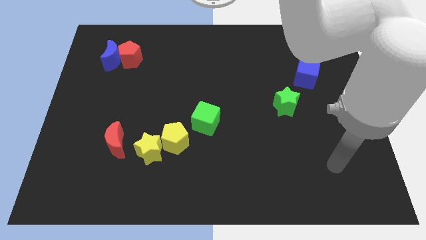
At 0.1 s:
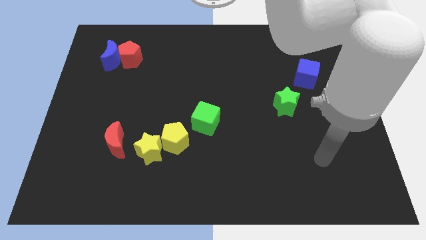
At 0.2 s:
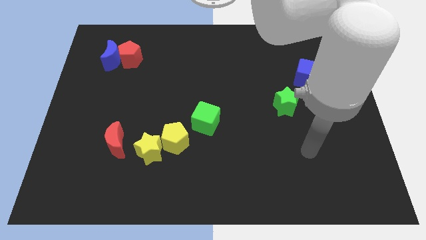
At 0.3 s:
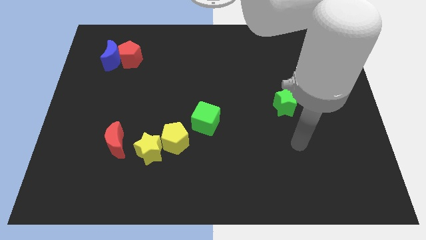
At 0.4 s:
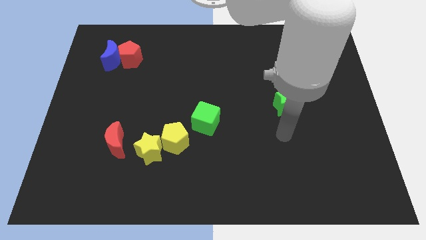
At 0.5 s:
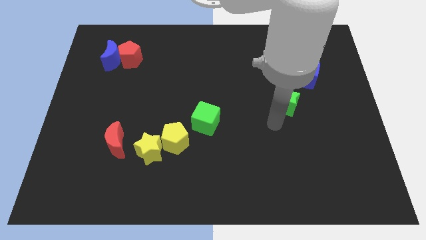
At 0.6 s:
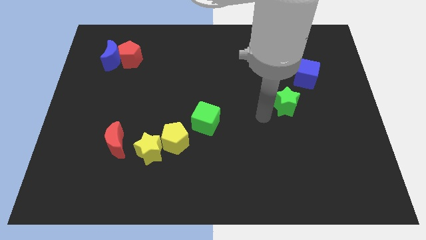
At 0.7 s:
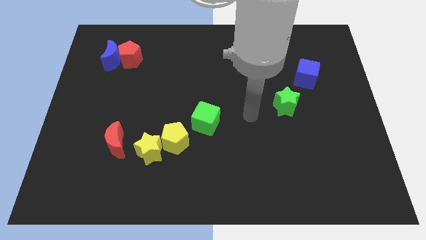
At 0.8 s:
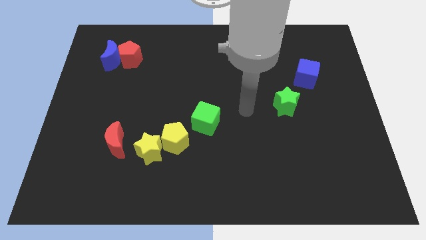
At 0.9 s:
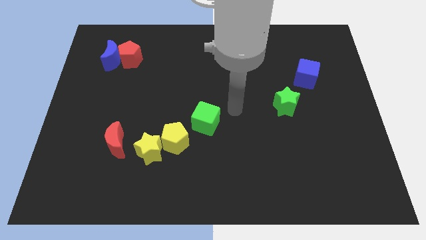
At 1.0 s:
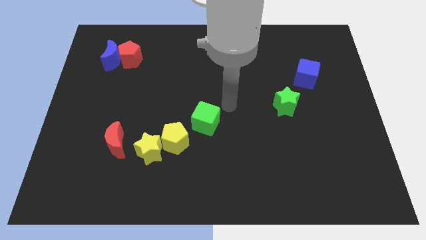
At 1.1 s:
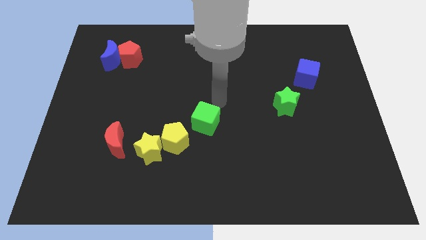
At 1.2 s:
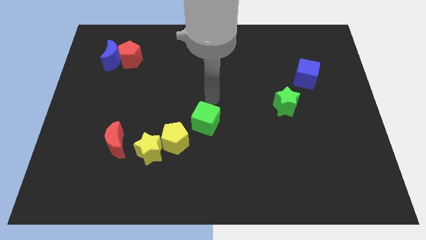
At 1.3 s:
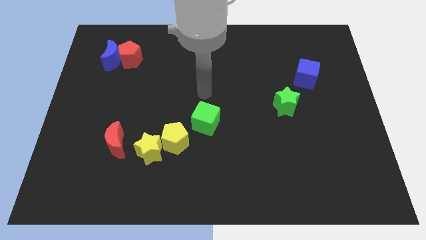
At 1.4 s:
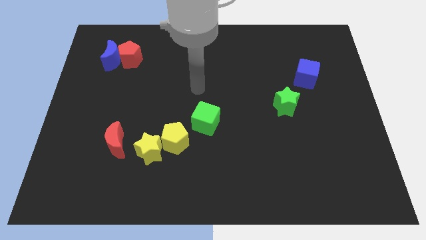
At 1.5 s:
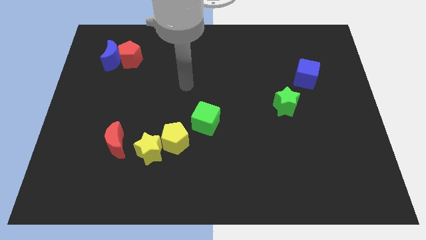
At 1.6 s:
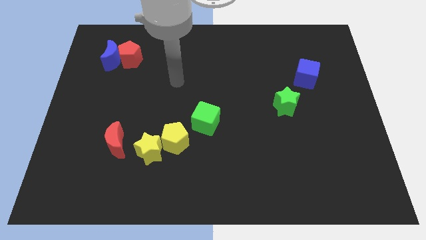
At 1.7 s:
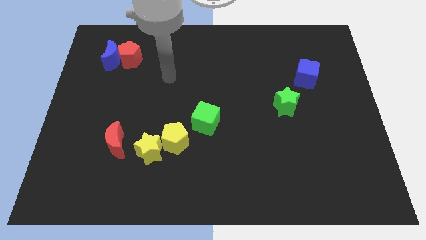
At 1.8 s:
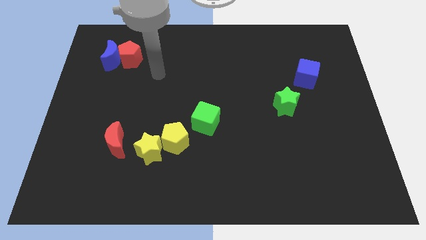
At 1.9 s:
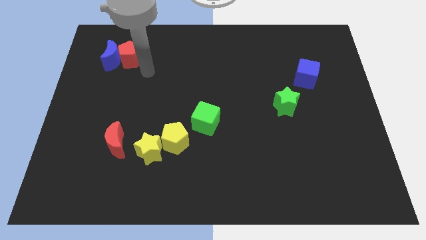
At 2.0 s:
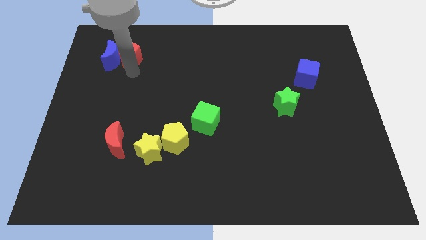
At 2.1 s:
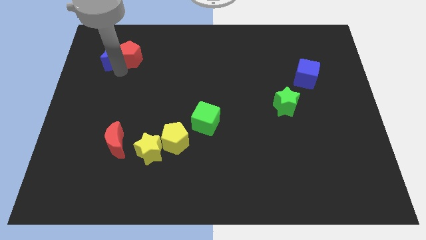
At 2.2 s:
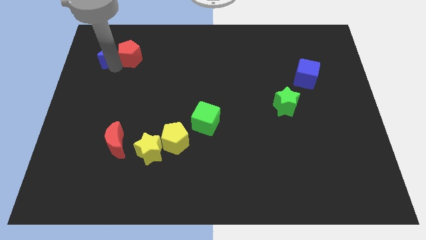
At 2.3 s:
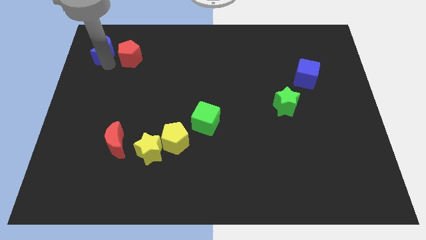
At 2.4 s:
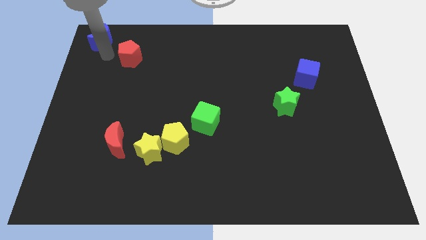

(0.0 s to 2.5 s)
move the red pentagon away from the blue moon

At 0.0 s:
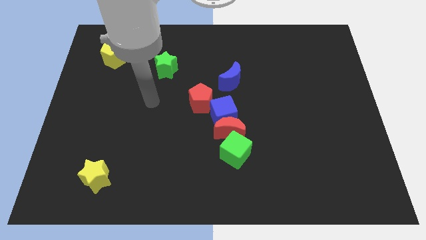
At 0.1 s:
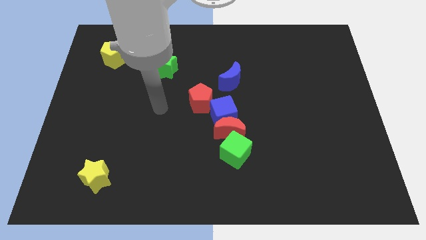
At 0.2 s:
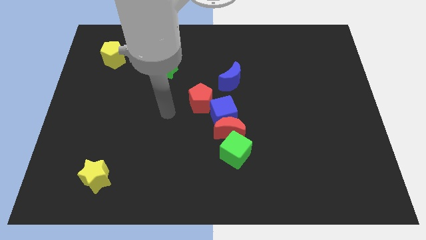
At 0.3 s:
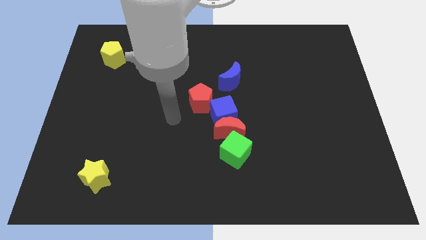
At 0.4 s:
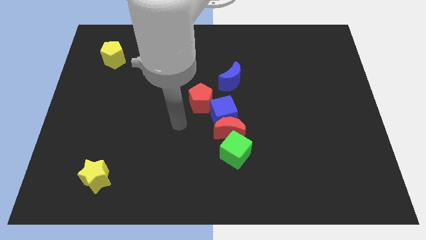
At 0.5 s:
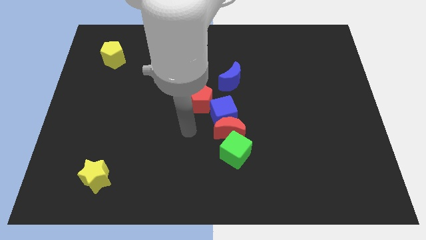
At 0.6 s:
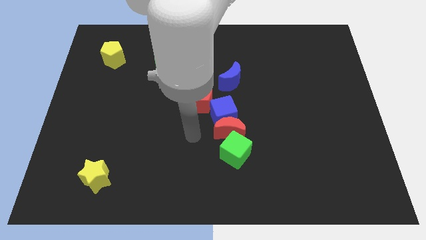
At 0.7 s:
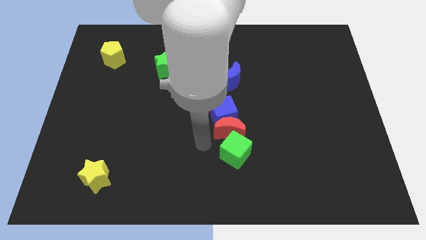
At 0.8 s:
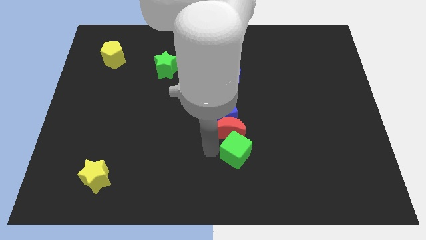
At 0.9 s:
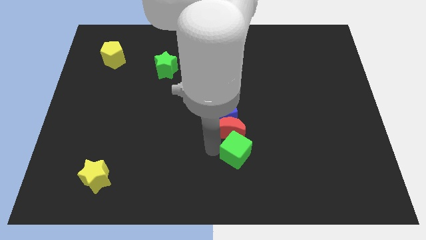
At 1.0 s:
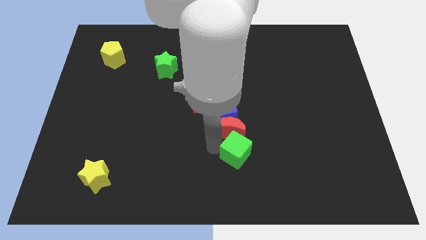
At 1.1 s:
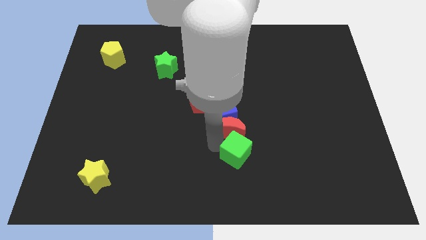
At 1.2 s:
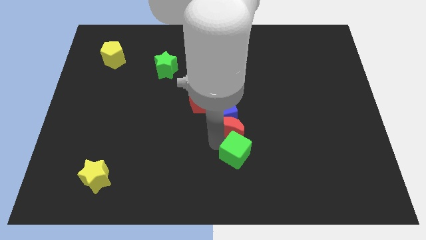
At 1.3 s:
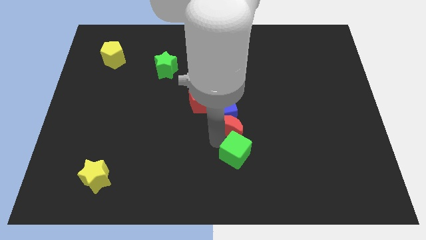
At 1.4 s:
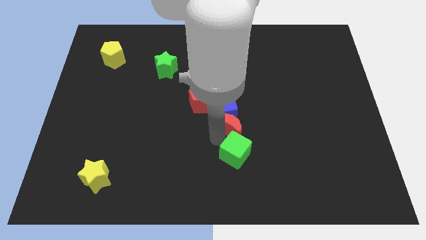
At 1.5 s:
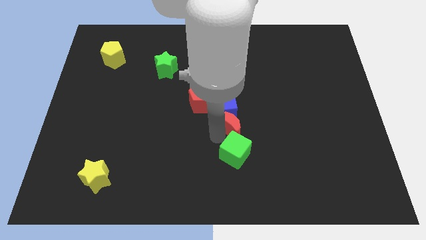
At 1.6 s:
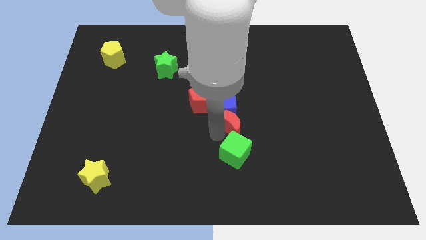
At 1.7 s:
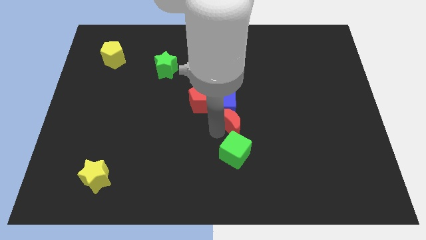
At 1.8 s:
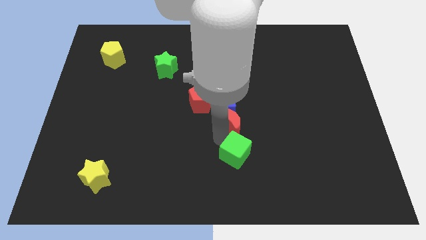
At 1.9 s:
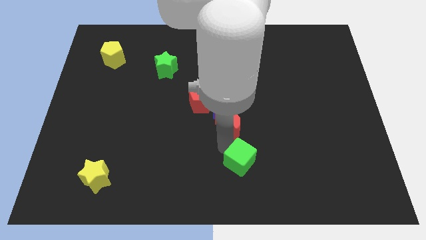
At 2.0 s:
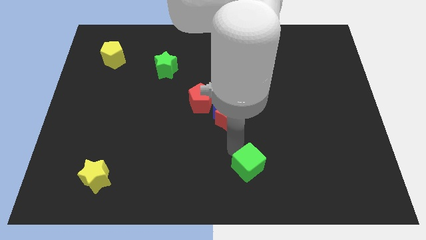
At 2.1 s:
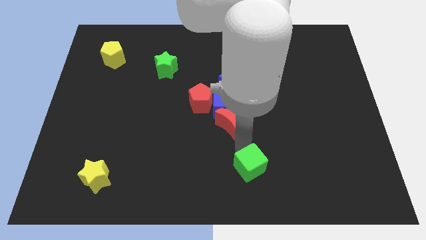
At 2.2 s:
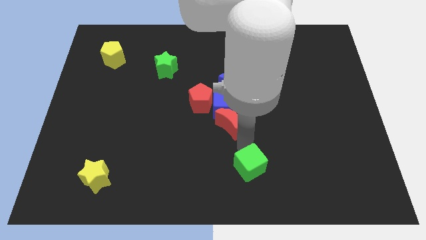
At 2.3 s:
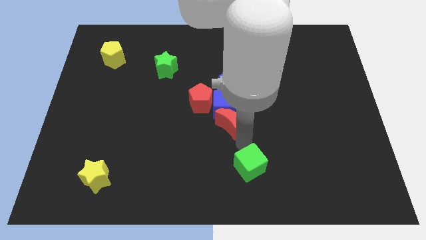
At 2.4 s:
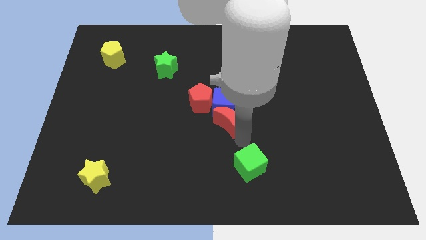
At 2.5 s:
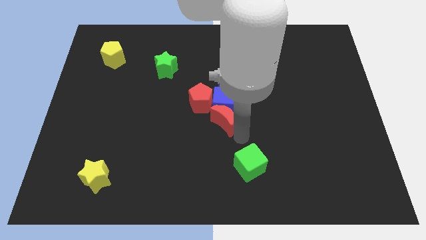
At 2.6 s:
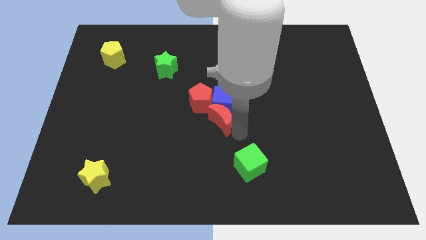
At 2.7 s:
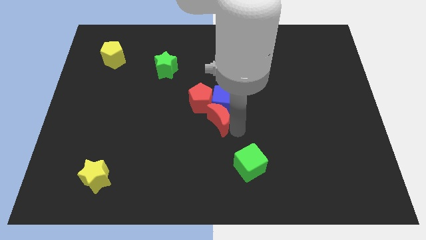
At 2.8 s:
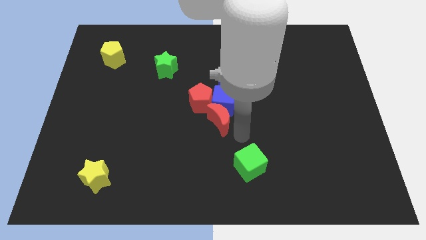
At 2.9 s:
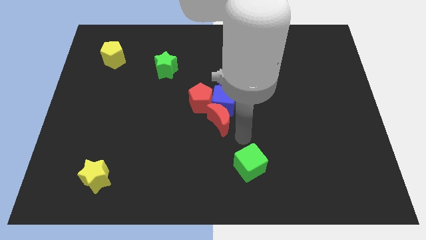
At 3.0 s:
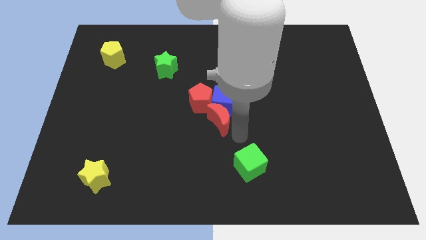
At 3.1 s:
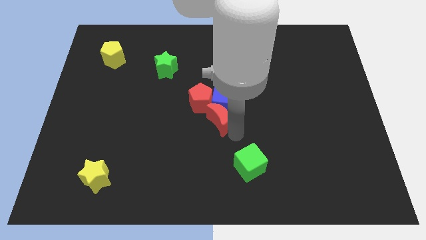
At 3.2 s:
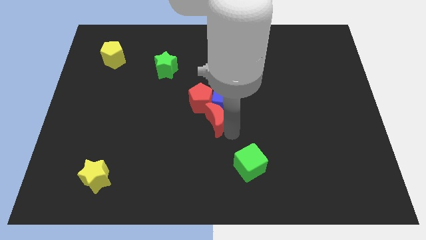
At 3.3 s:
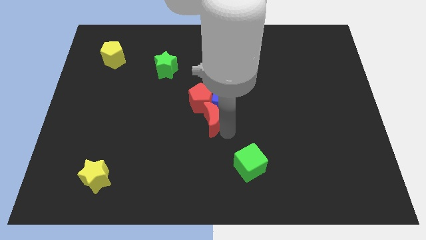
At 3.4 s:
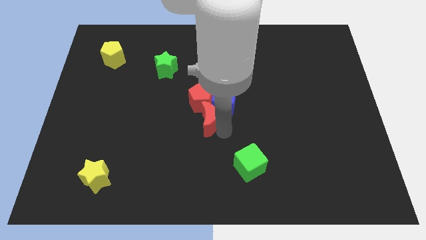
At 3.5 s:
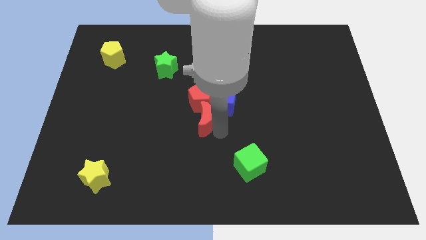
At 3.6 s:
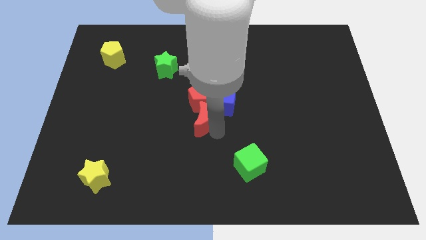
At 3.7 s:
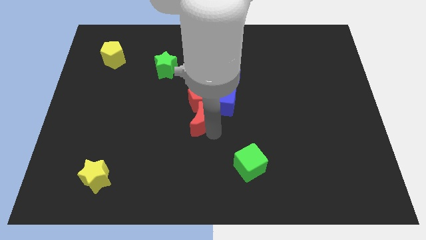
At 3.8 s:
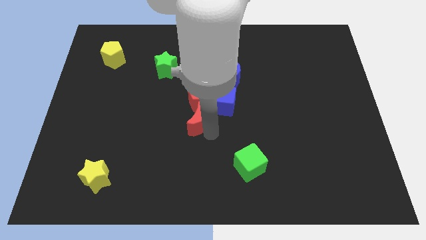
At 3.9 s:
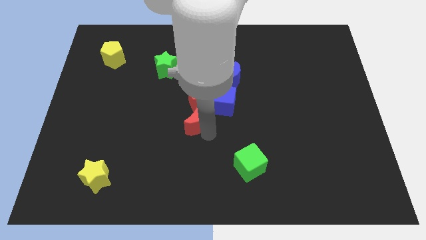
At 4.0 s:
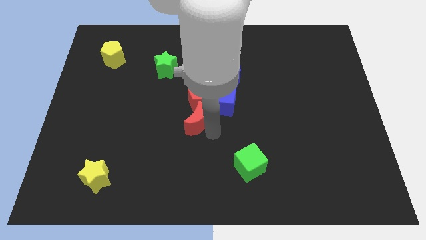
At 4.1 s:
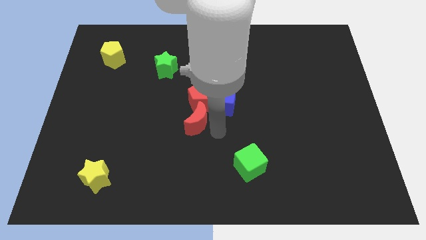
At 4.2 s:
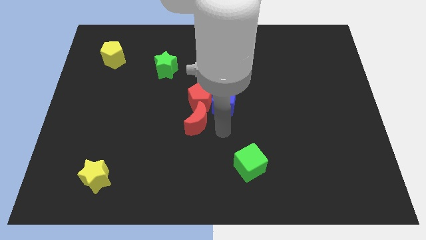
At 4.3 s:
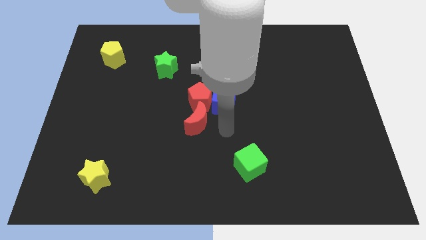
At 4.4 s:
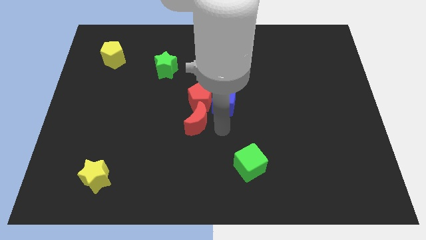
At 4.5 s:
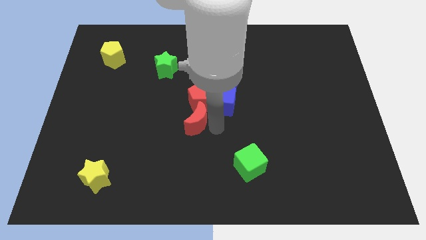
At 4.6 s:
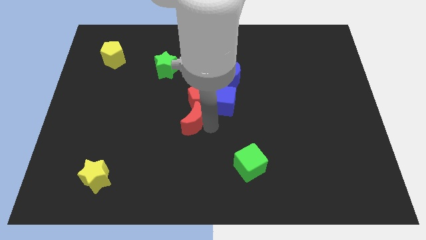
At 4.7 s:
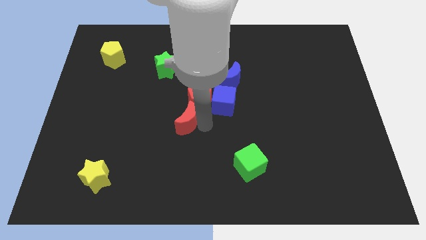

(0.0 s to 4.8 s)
move the red moon away from the blue cube and green cube

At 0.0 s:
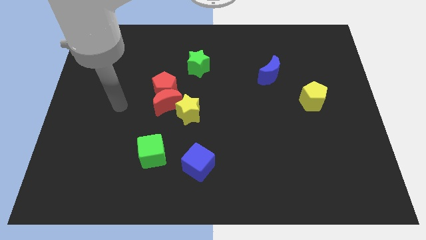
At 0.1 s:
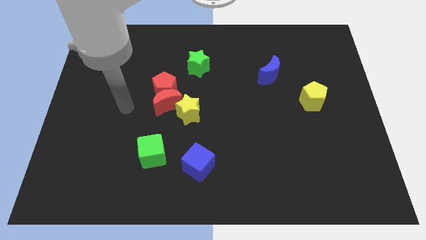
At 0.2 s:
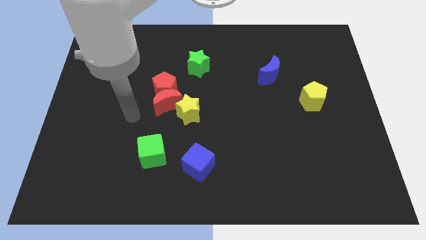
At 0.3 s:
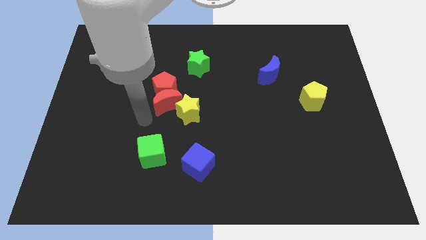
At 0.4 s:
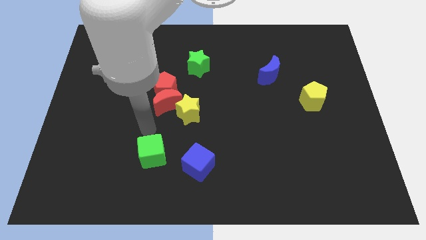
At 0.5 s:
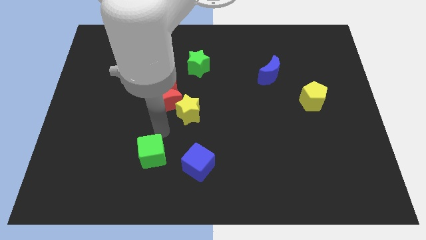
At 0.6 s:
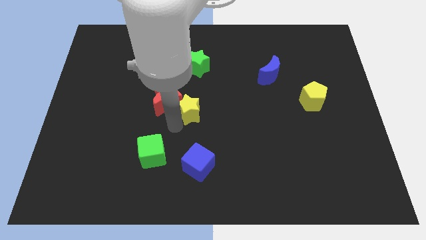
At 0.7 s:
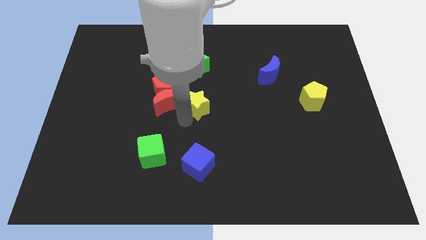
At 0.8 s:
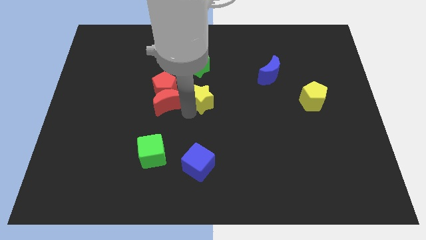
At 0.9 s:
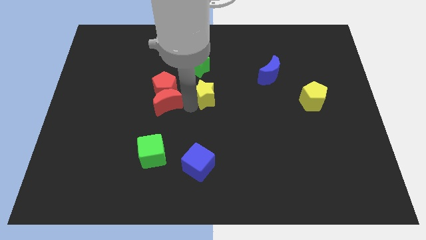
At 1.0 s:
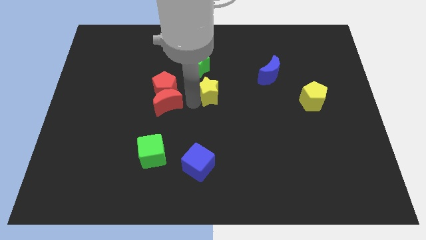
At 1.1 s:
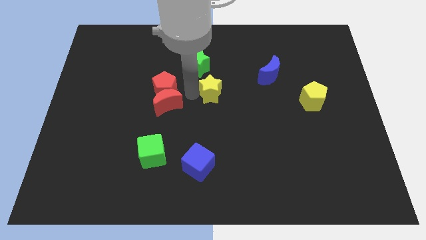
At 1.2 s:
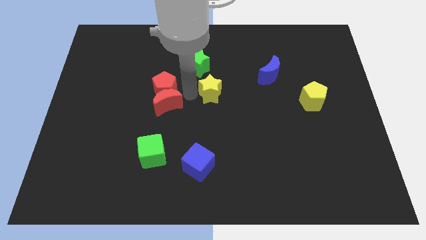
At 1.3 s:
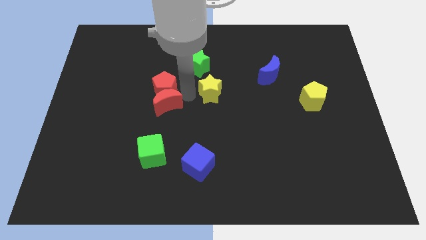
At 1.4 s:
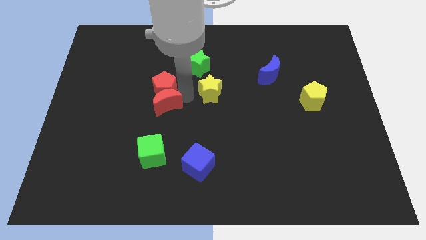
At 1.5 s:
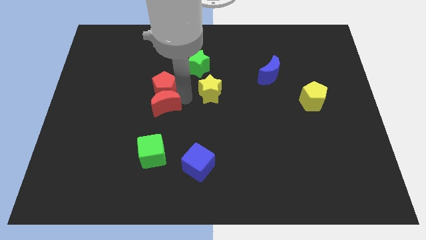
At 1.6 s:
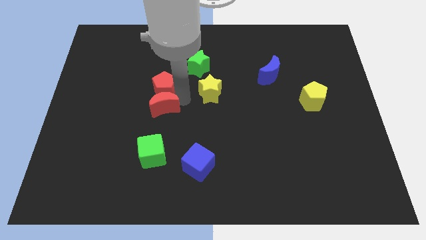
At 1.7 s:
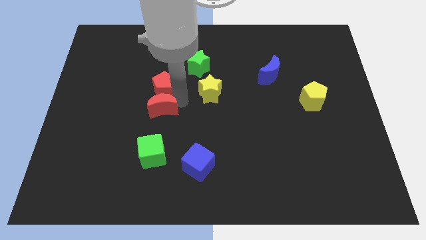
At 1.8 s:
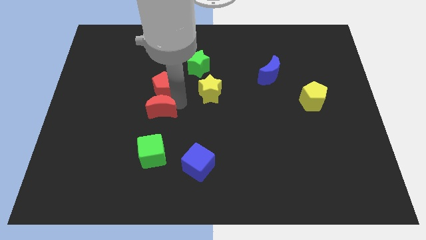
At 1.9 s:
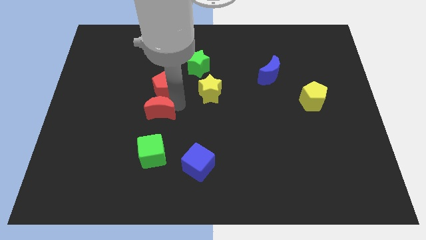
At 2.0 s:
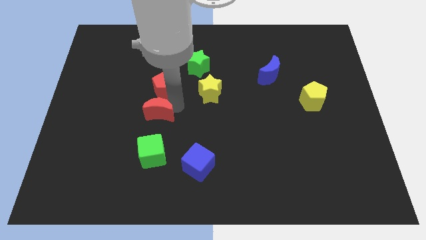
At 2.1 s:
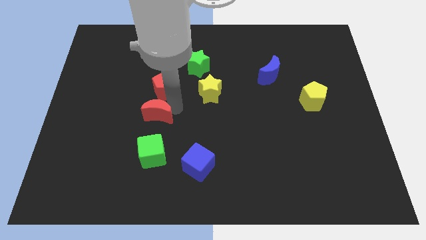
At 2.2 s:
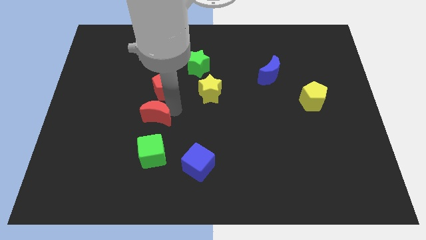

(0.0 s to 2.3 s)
move the red moon away from the red pentagon and yellow star
